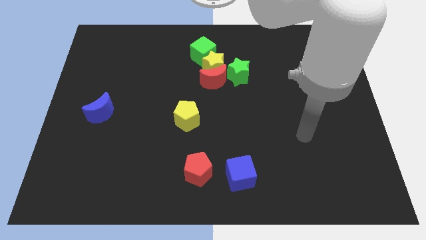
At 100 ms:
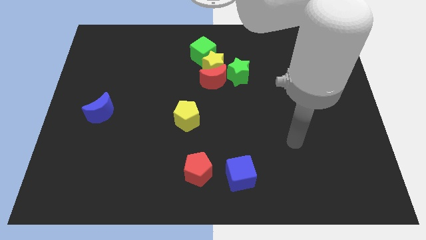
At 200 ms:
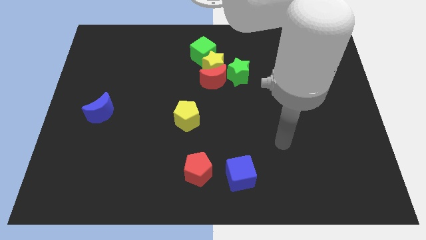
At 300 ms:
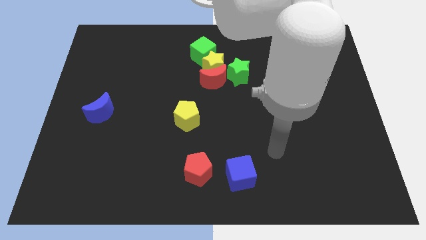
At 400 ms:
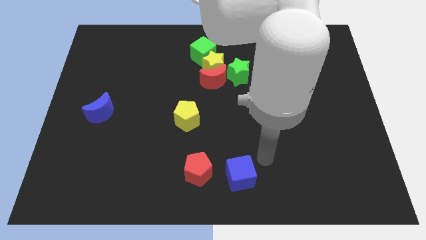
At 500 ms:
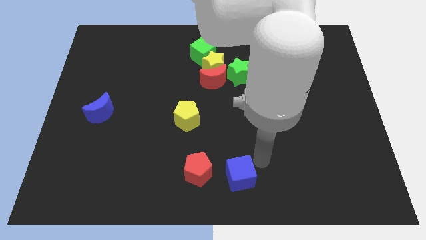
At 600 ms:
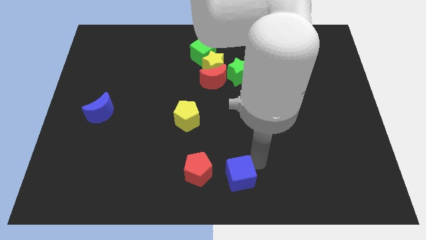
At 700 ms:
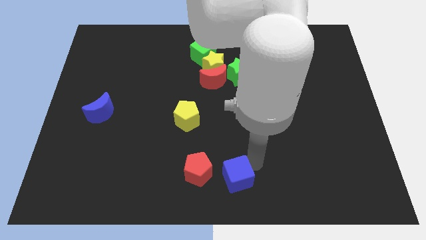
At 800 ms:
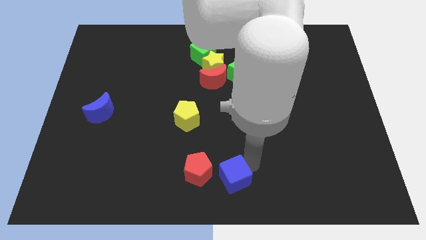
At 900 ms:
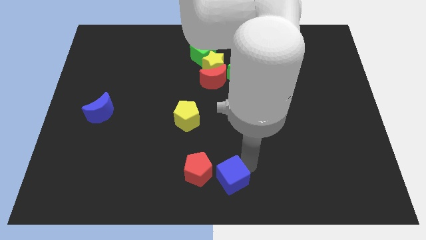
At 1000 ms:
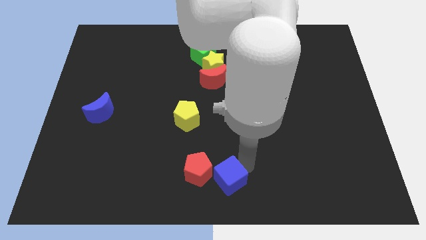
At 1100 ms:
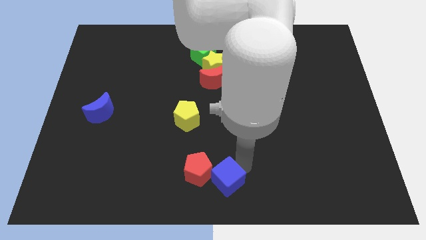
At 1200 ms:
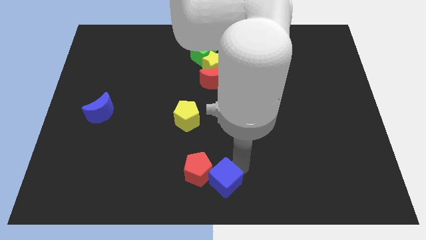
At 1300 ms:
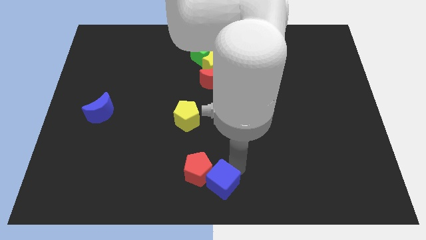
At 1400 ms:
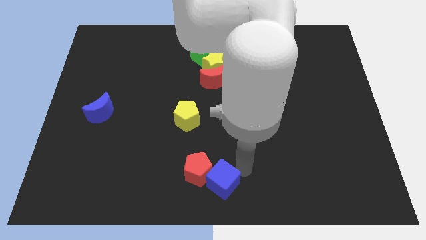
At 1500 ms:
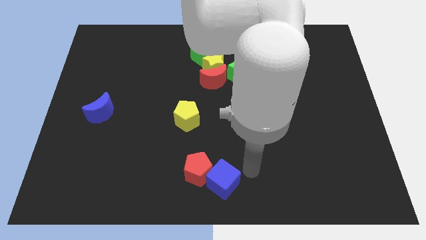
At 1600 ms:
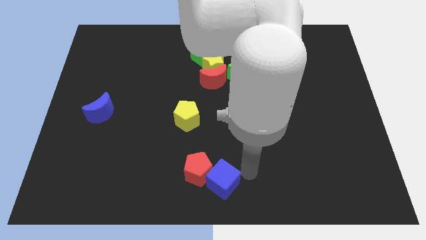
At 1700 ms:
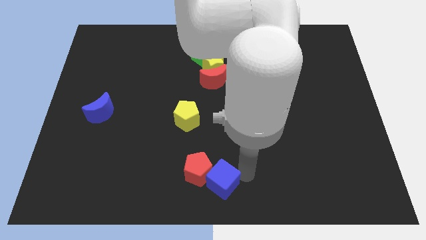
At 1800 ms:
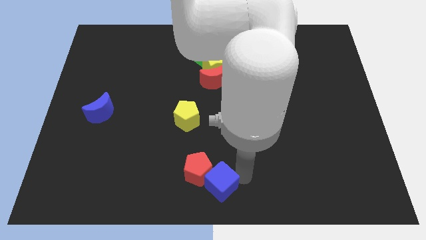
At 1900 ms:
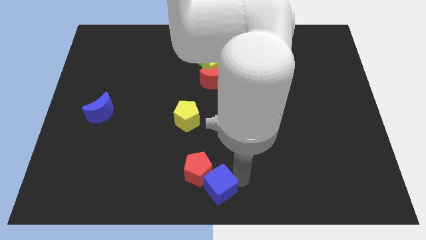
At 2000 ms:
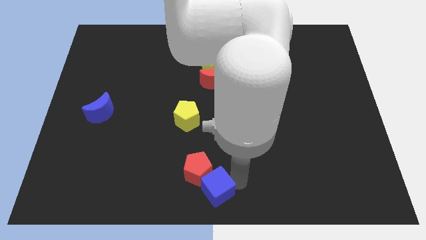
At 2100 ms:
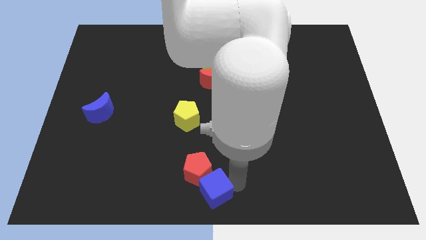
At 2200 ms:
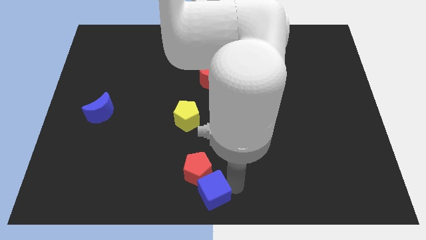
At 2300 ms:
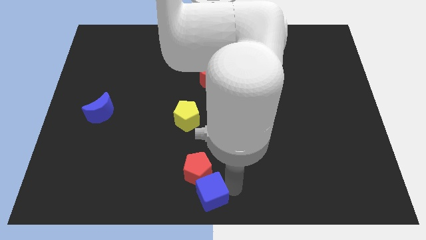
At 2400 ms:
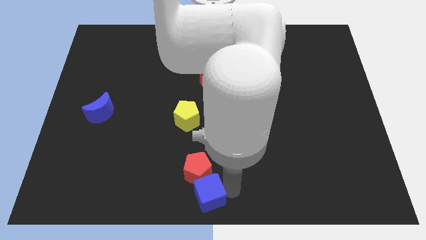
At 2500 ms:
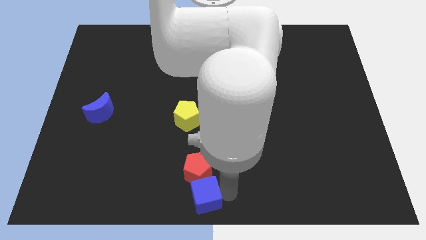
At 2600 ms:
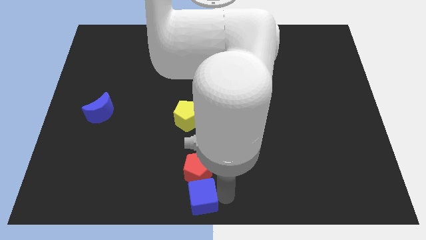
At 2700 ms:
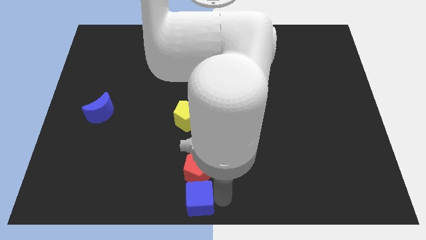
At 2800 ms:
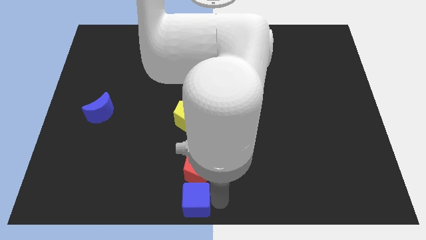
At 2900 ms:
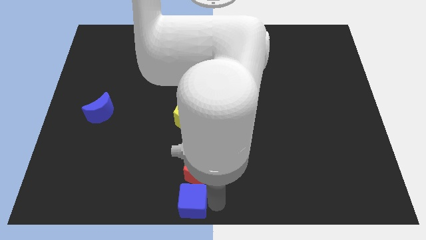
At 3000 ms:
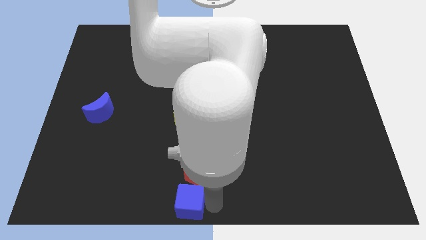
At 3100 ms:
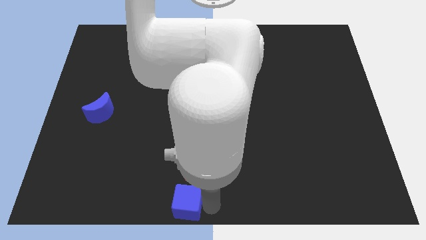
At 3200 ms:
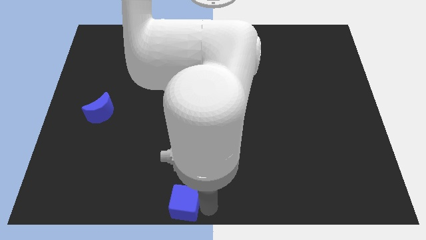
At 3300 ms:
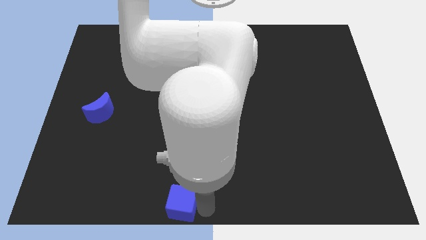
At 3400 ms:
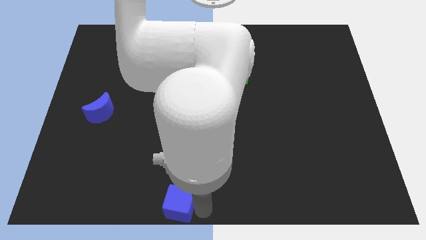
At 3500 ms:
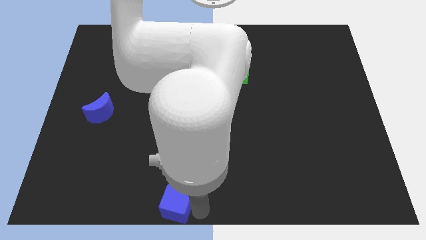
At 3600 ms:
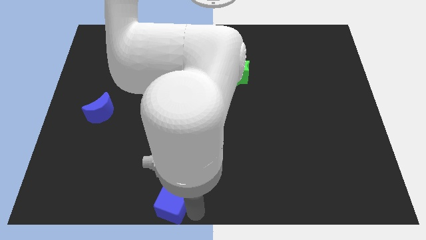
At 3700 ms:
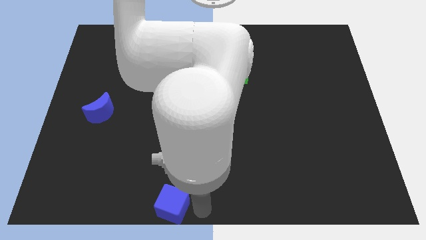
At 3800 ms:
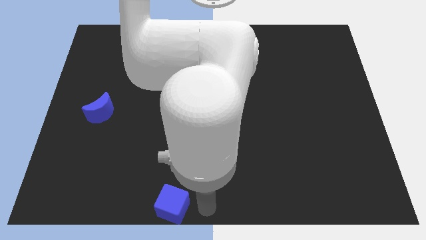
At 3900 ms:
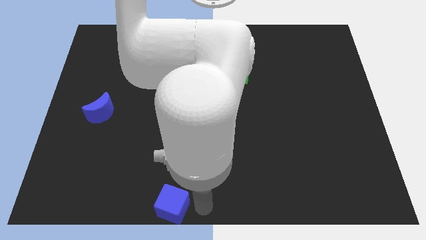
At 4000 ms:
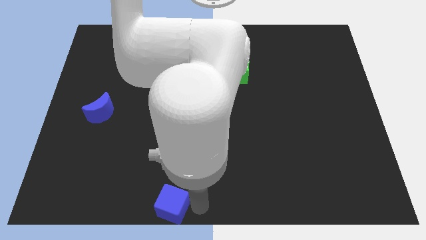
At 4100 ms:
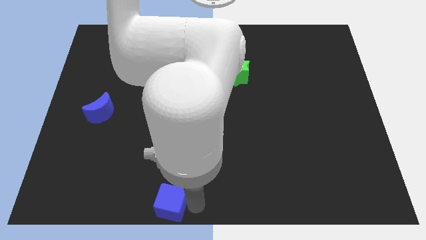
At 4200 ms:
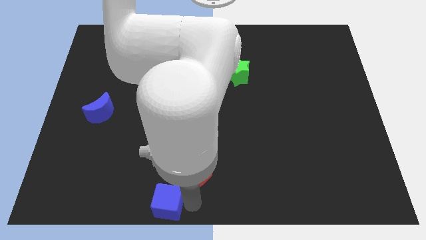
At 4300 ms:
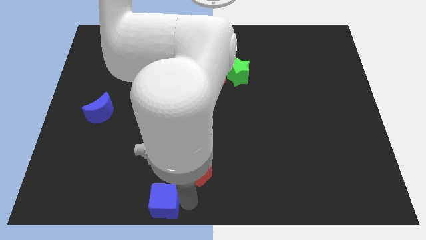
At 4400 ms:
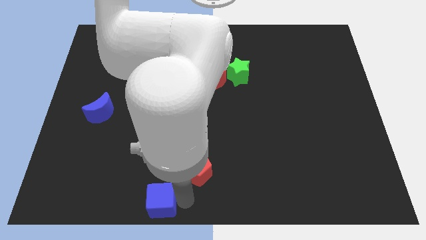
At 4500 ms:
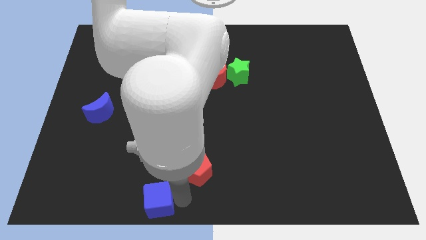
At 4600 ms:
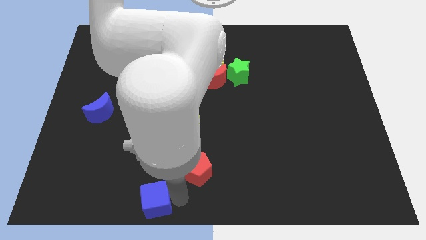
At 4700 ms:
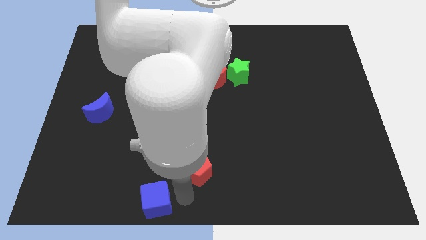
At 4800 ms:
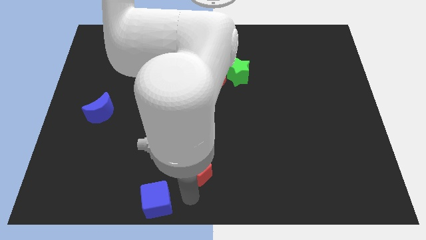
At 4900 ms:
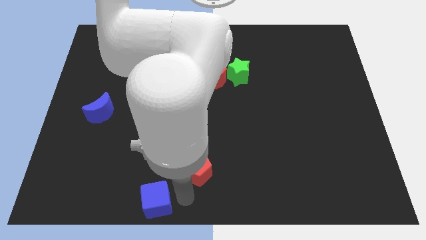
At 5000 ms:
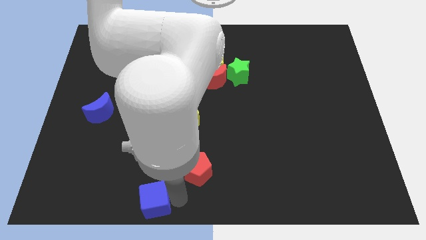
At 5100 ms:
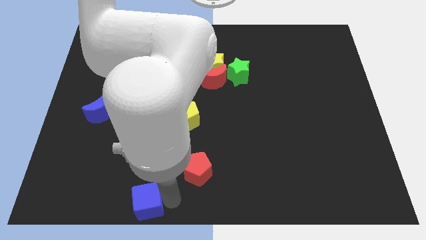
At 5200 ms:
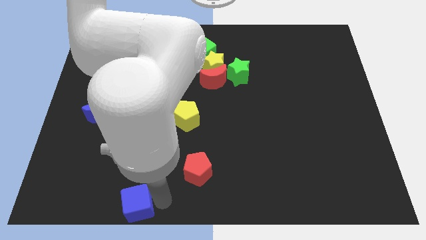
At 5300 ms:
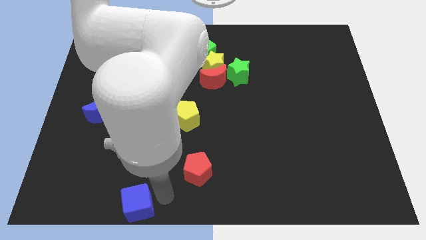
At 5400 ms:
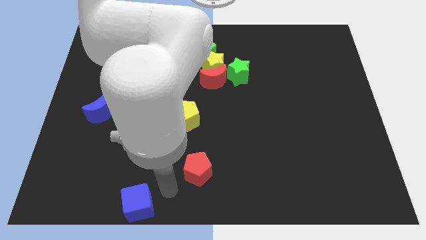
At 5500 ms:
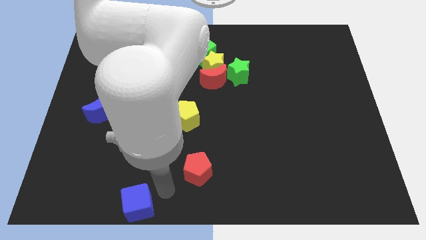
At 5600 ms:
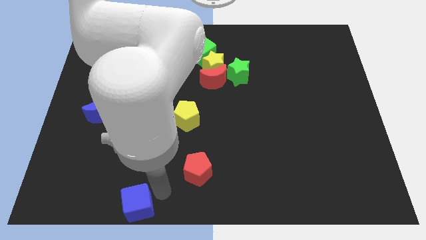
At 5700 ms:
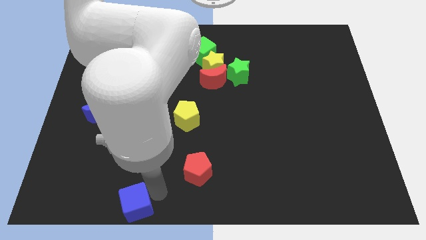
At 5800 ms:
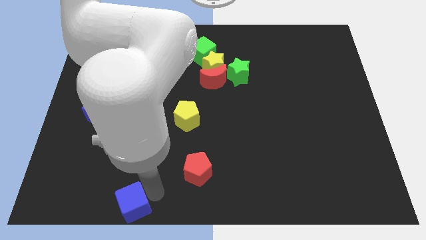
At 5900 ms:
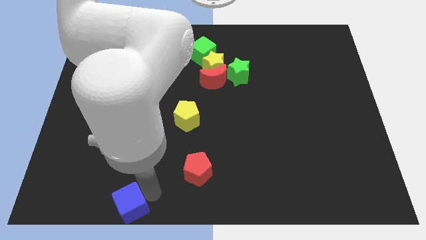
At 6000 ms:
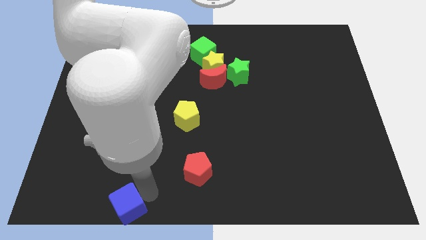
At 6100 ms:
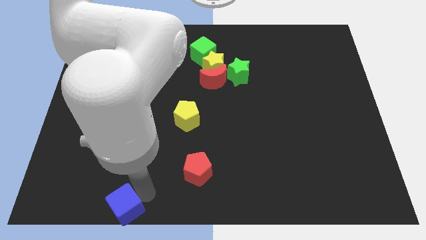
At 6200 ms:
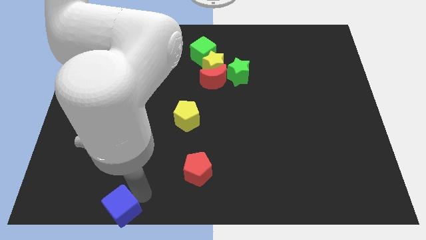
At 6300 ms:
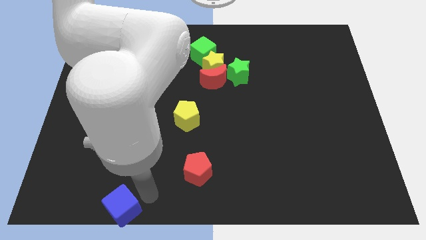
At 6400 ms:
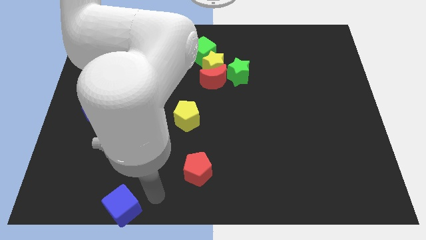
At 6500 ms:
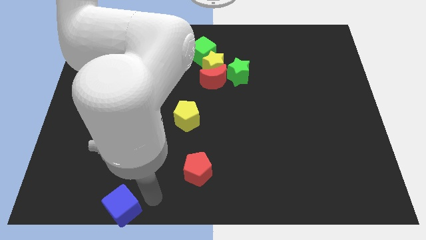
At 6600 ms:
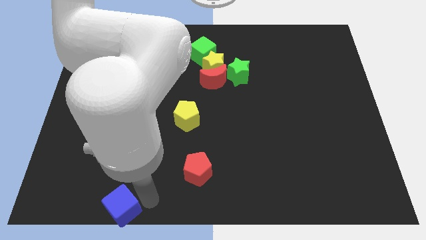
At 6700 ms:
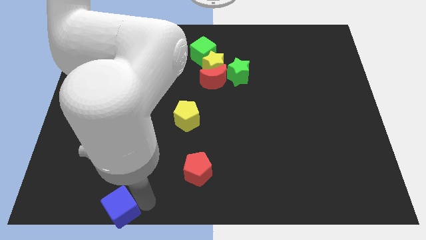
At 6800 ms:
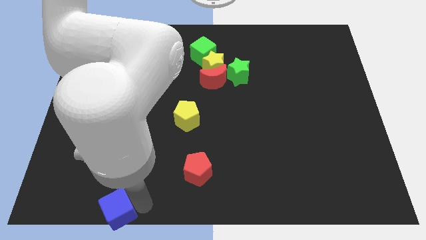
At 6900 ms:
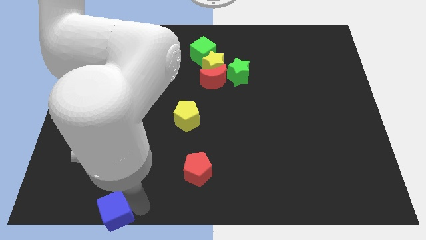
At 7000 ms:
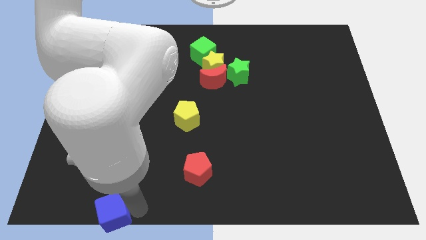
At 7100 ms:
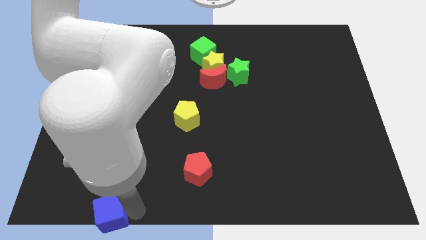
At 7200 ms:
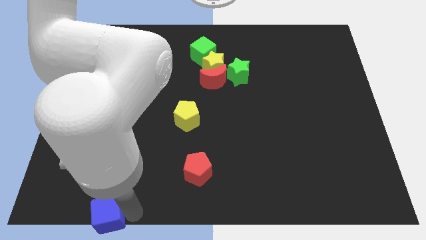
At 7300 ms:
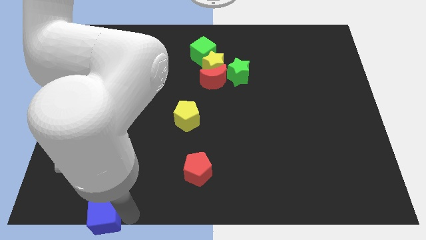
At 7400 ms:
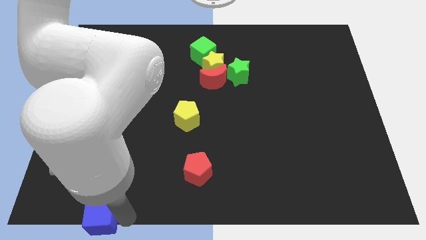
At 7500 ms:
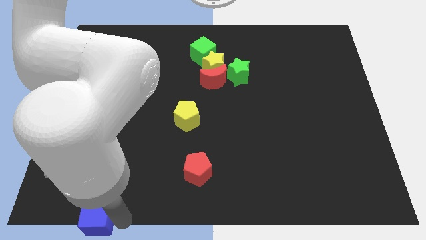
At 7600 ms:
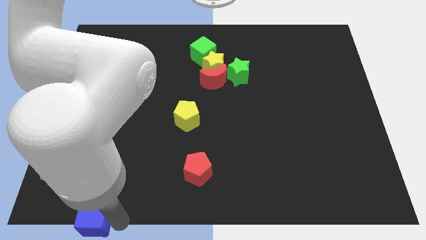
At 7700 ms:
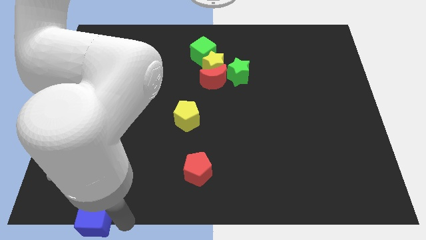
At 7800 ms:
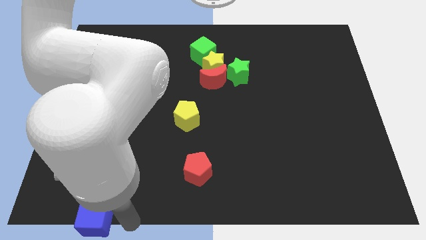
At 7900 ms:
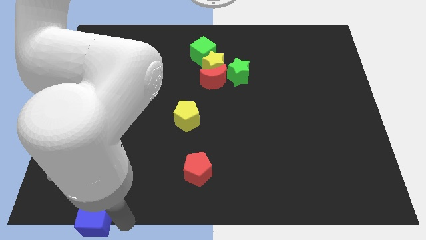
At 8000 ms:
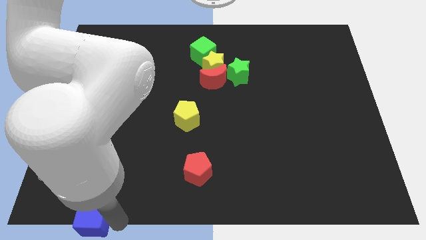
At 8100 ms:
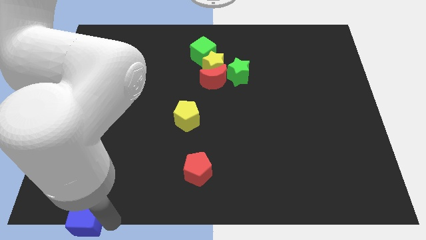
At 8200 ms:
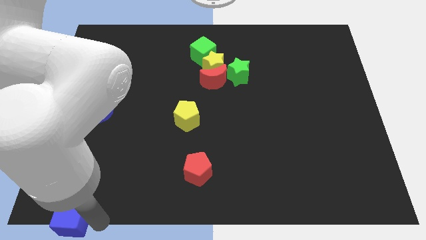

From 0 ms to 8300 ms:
put the blue cube to the bottom left
